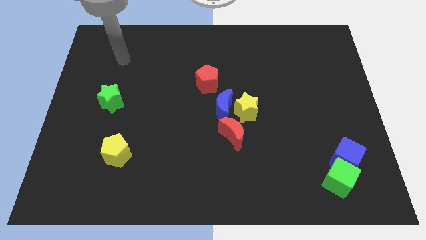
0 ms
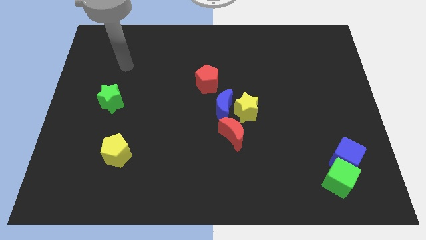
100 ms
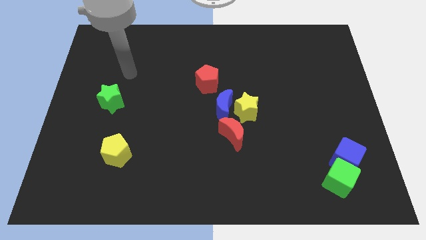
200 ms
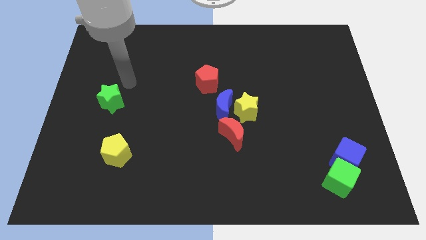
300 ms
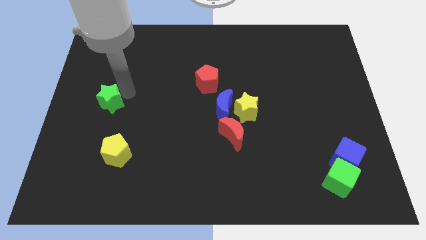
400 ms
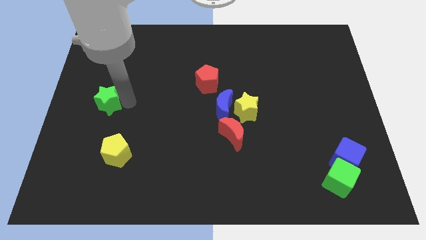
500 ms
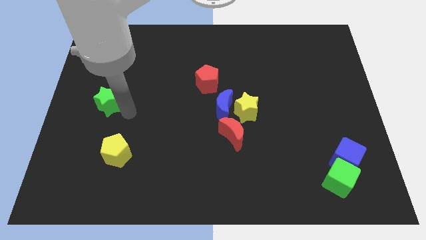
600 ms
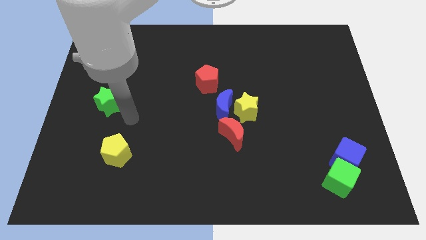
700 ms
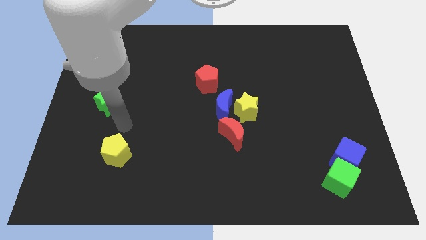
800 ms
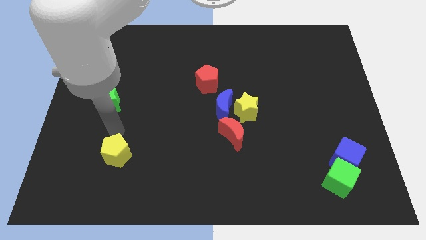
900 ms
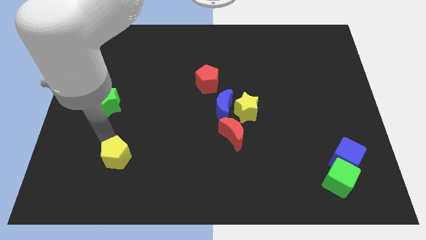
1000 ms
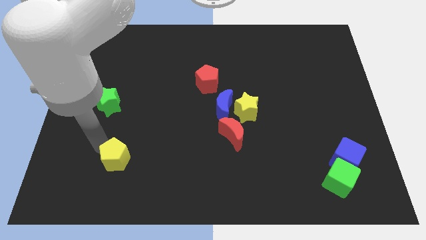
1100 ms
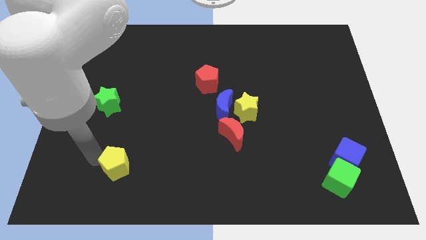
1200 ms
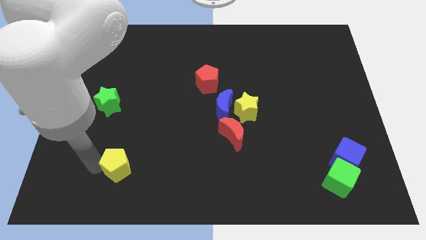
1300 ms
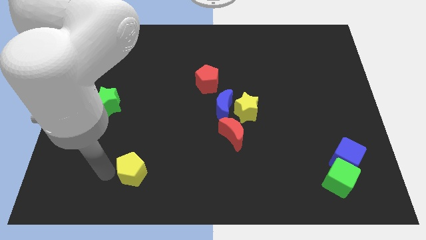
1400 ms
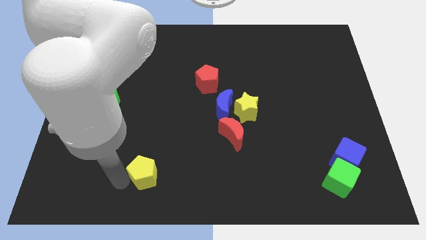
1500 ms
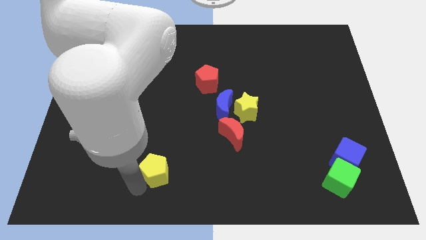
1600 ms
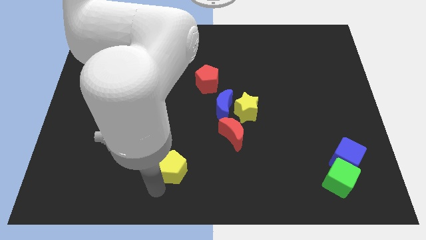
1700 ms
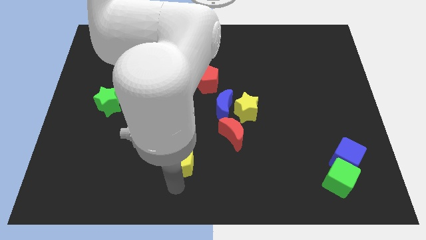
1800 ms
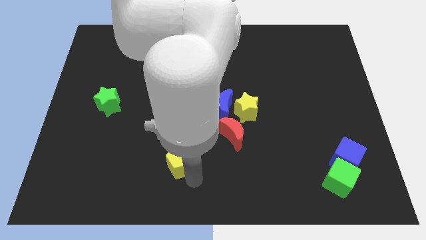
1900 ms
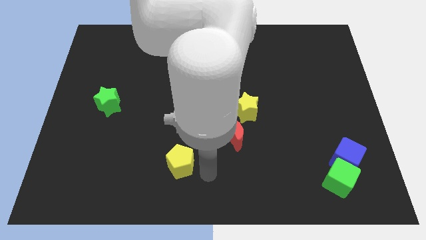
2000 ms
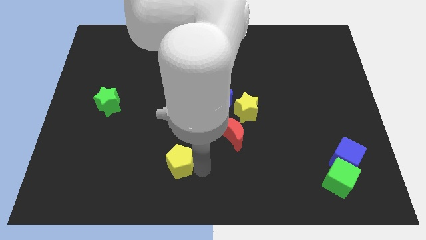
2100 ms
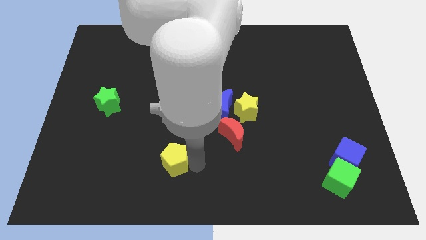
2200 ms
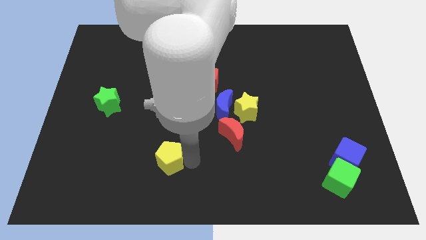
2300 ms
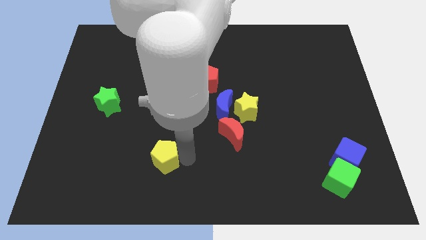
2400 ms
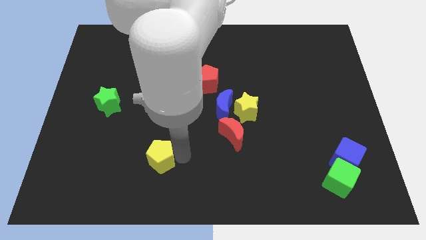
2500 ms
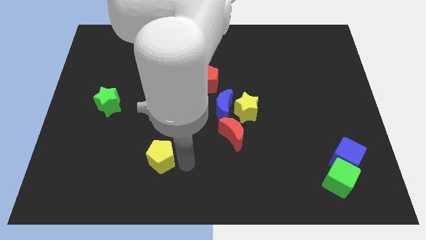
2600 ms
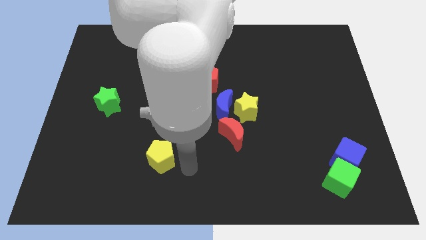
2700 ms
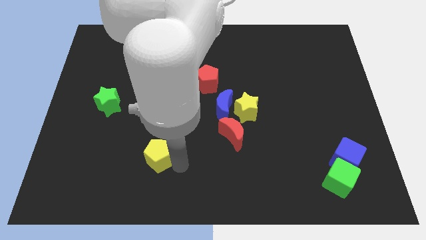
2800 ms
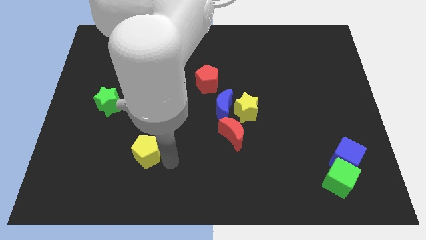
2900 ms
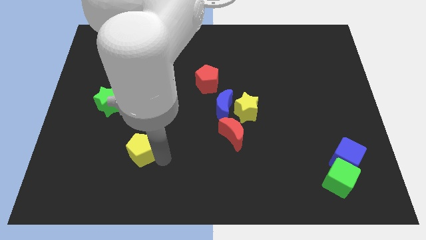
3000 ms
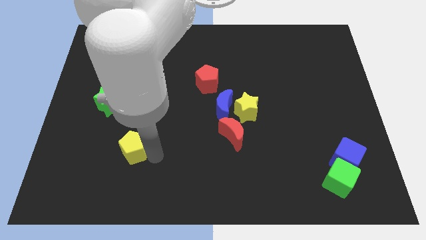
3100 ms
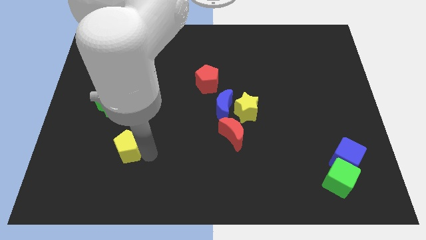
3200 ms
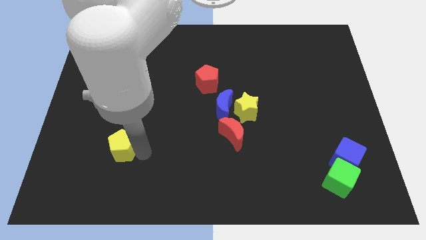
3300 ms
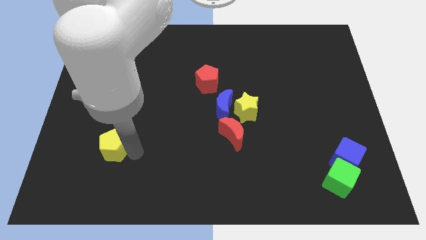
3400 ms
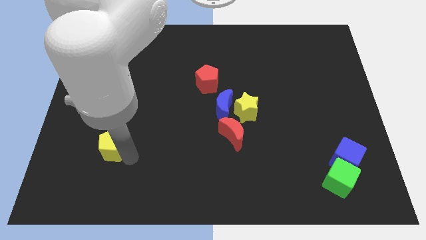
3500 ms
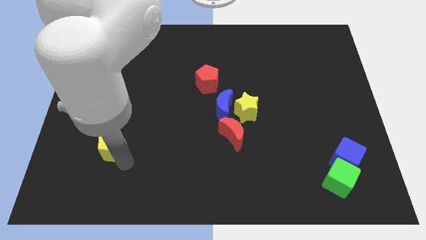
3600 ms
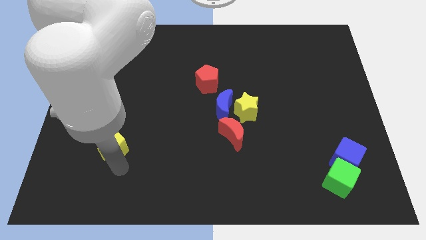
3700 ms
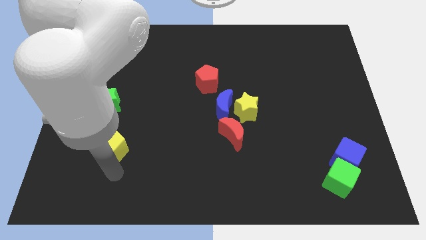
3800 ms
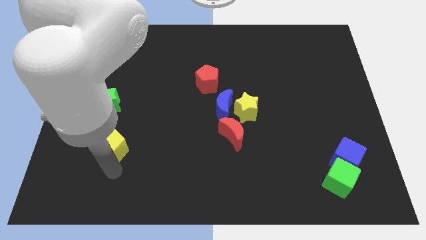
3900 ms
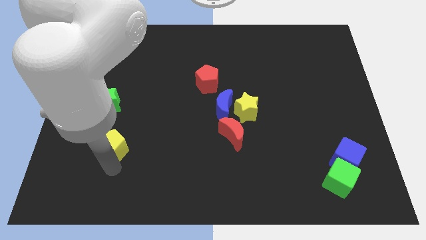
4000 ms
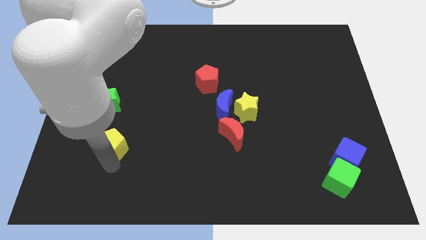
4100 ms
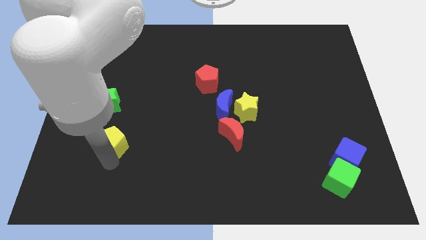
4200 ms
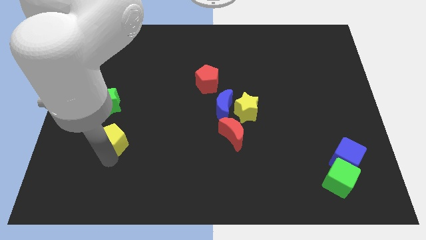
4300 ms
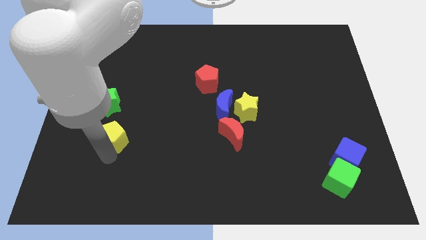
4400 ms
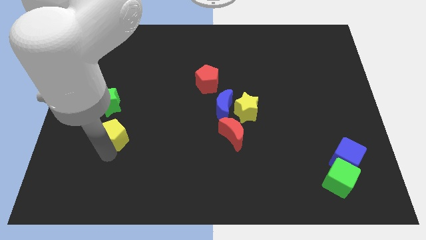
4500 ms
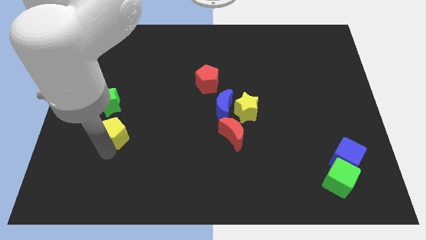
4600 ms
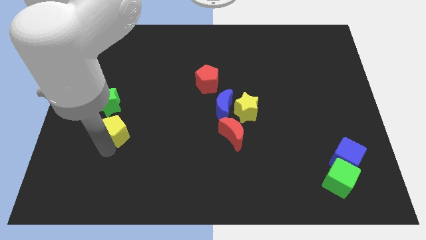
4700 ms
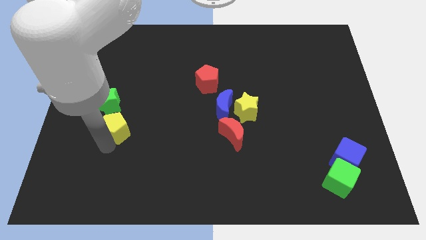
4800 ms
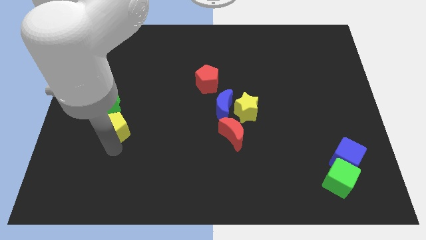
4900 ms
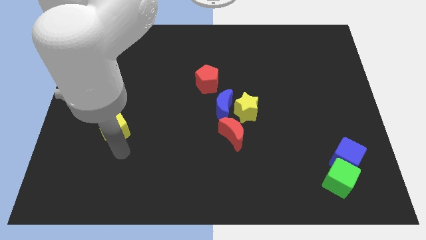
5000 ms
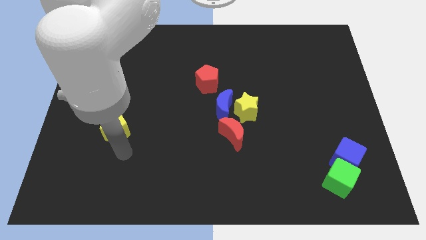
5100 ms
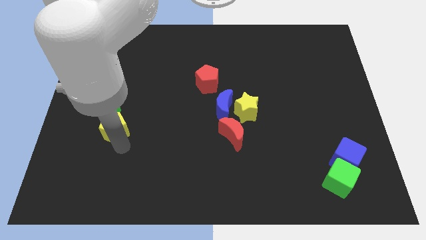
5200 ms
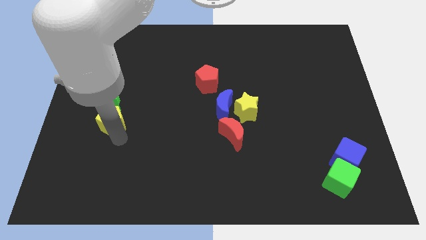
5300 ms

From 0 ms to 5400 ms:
move the yellow pentagon close to the green star

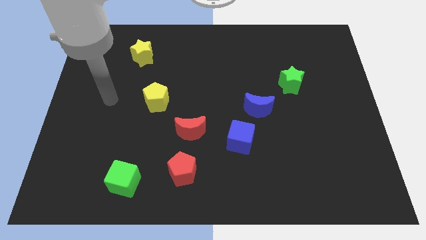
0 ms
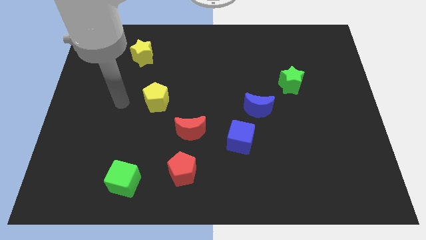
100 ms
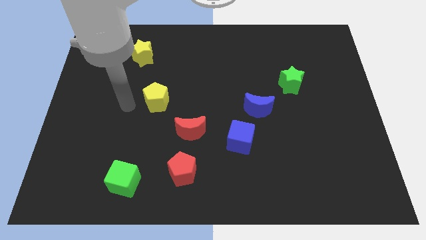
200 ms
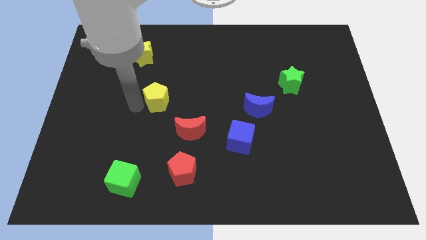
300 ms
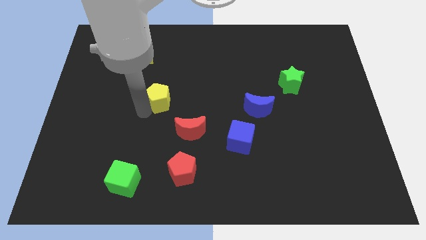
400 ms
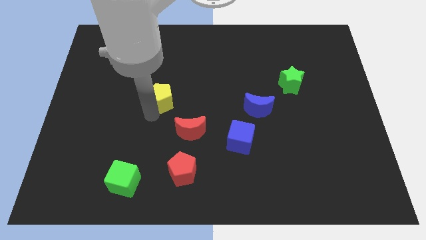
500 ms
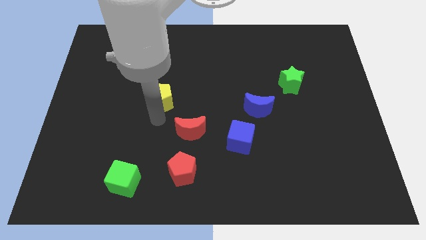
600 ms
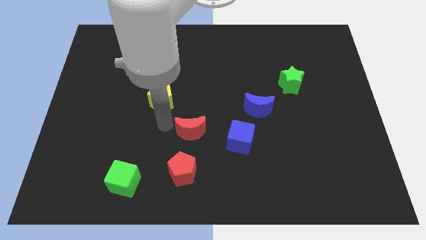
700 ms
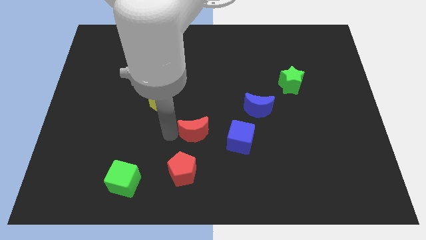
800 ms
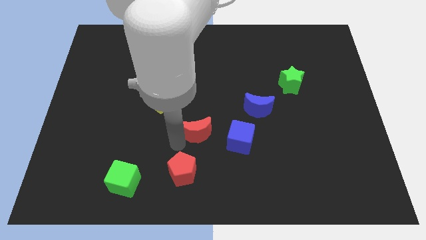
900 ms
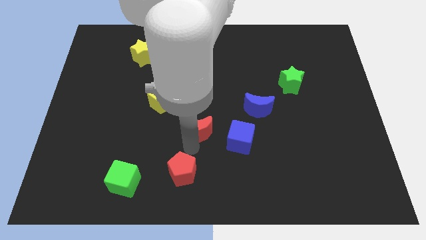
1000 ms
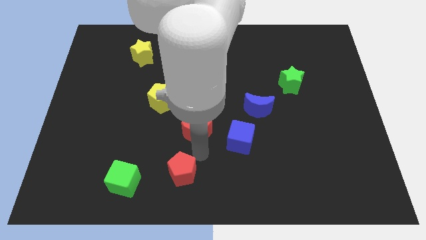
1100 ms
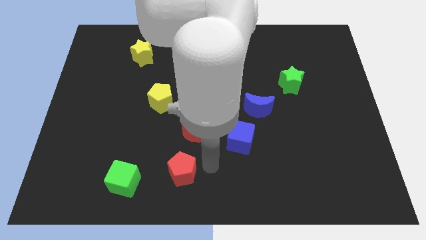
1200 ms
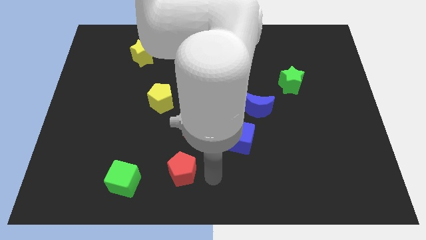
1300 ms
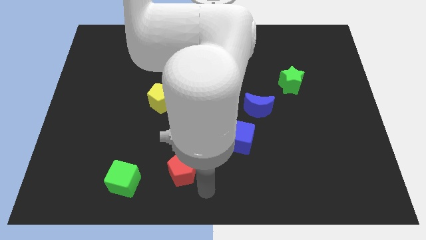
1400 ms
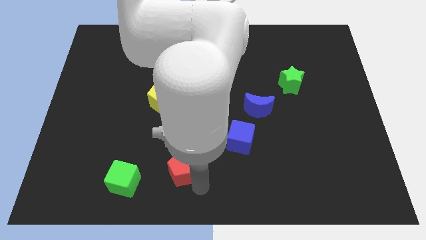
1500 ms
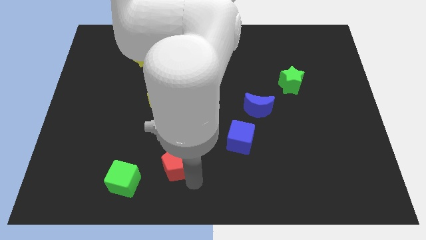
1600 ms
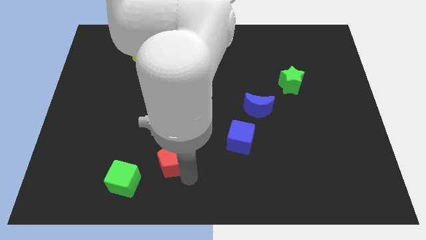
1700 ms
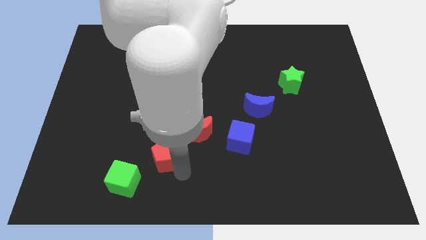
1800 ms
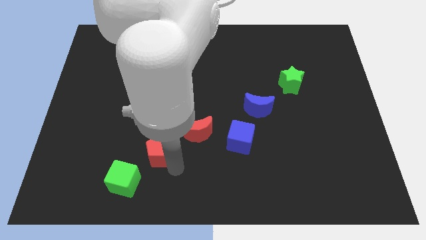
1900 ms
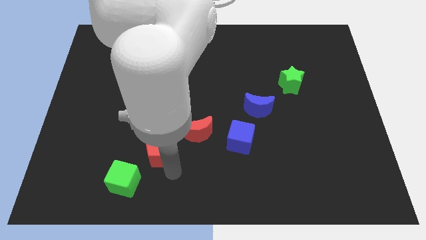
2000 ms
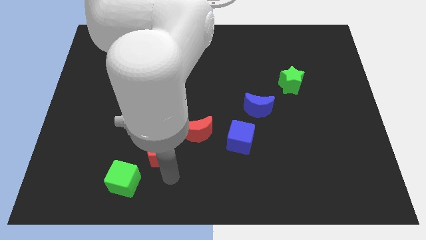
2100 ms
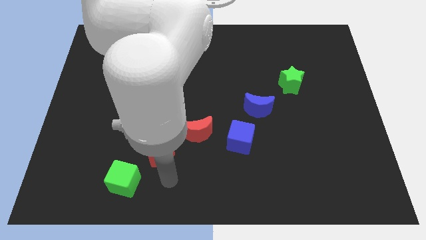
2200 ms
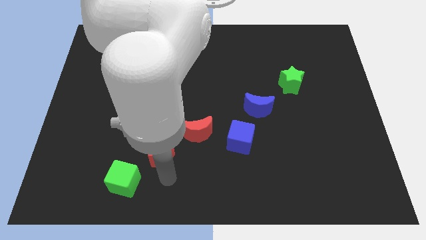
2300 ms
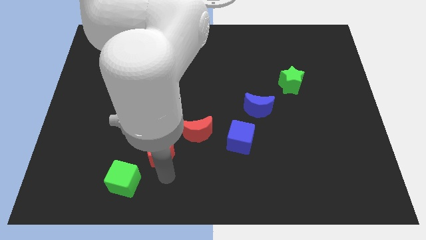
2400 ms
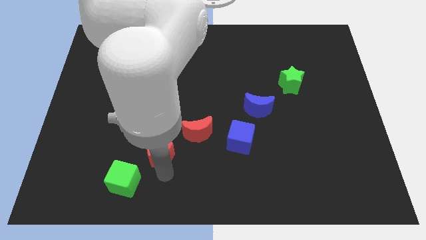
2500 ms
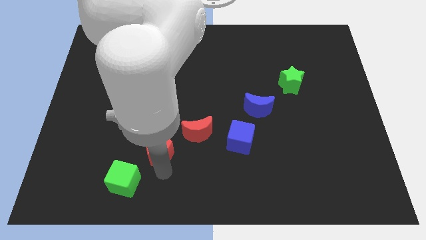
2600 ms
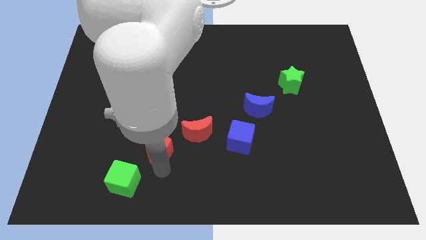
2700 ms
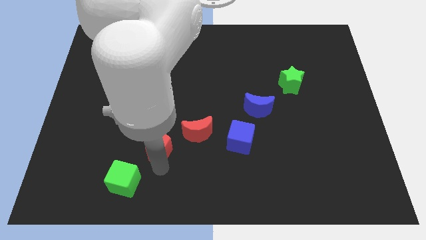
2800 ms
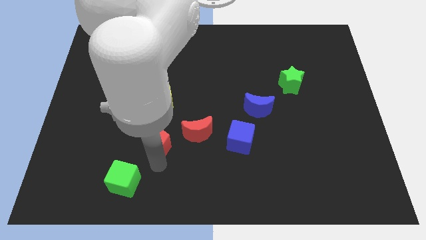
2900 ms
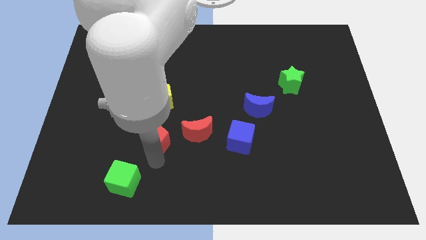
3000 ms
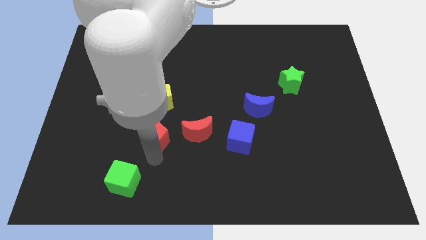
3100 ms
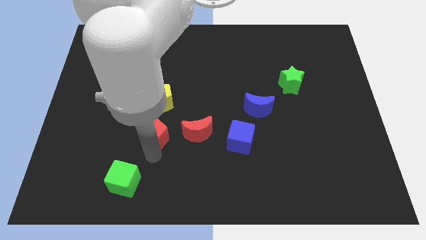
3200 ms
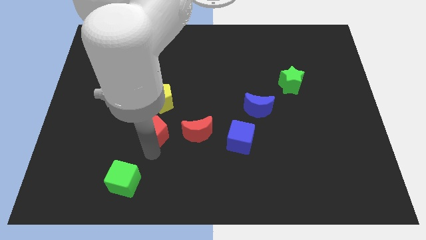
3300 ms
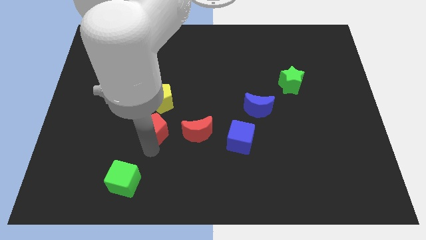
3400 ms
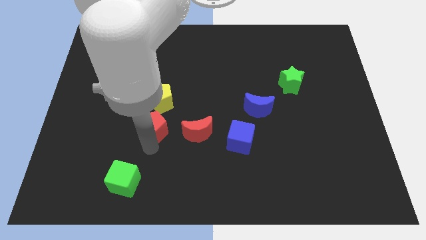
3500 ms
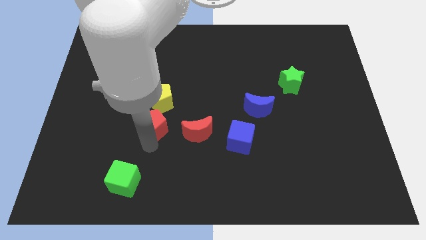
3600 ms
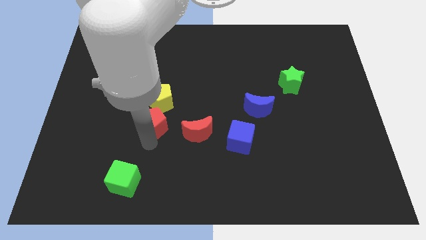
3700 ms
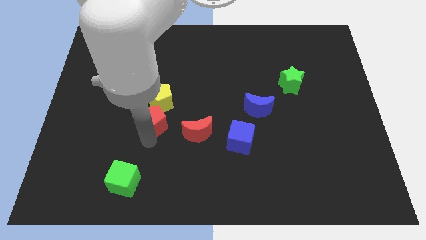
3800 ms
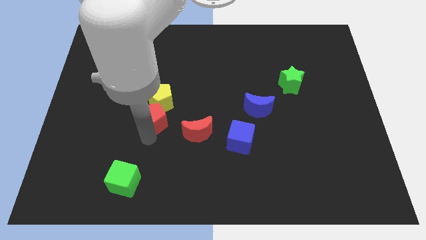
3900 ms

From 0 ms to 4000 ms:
slide the red pentagon towards the yellow pentagon
